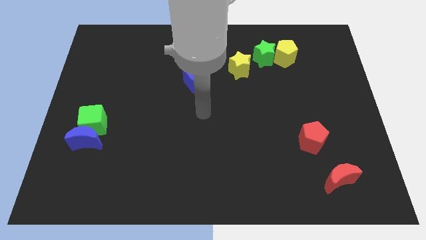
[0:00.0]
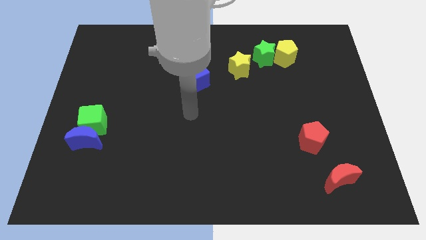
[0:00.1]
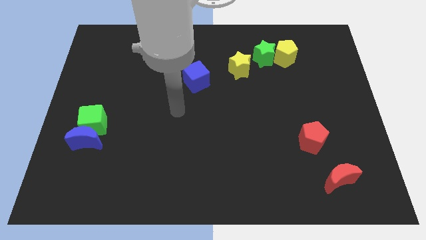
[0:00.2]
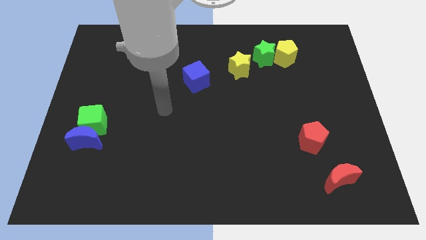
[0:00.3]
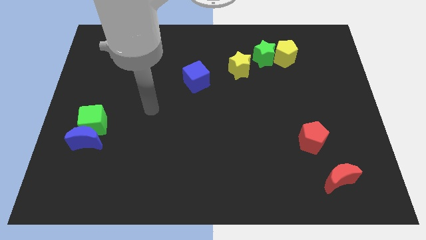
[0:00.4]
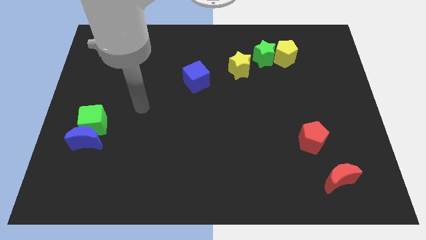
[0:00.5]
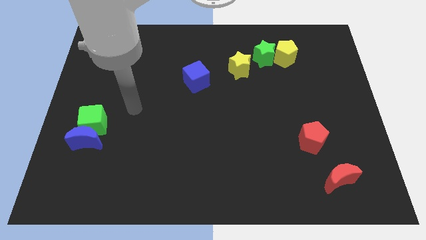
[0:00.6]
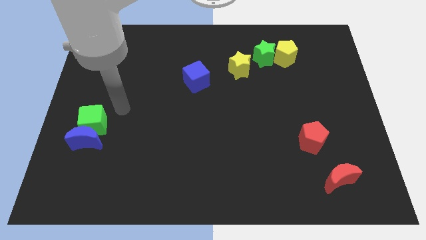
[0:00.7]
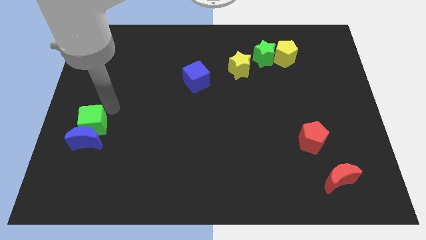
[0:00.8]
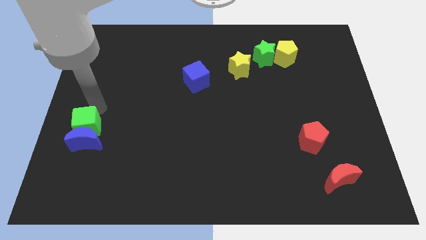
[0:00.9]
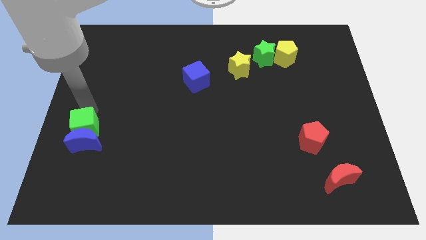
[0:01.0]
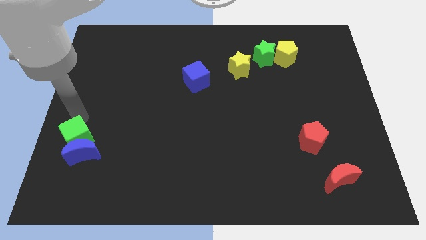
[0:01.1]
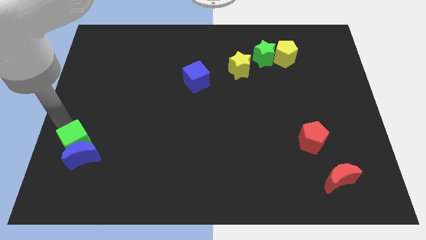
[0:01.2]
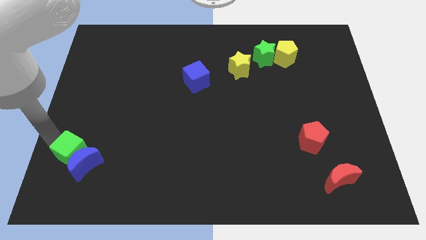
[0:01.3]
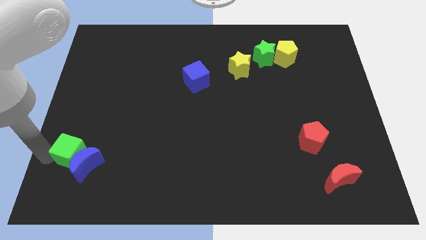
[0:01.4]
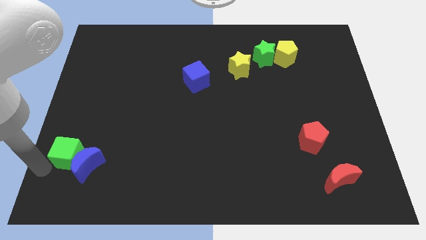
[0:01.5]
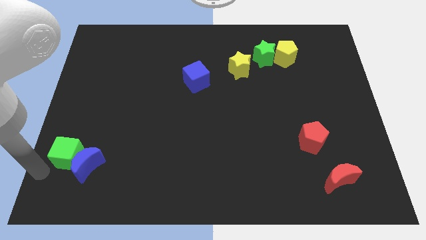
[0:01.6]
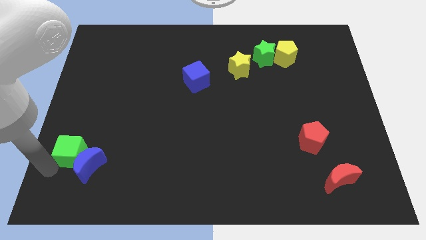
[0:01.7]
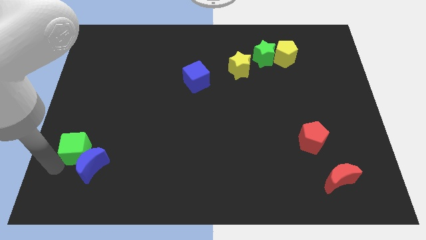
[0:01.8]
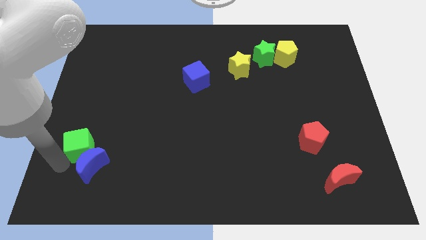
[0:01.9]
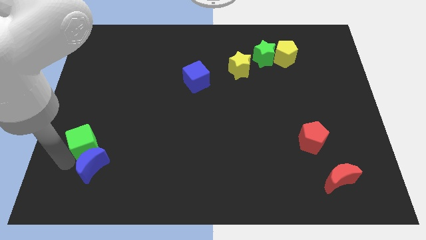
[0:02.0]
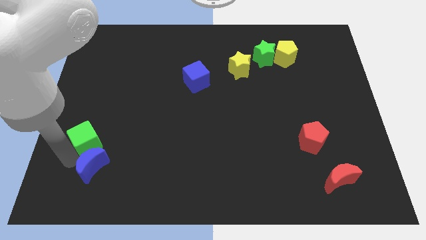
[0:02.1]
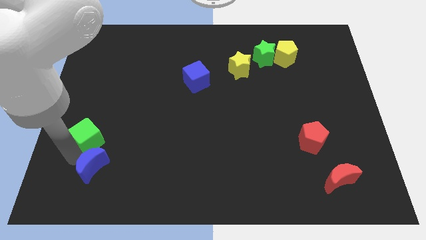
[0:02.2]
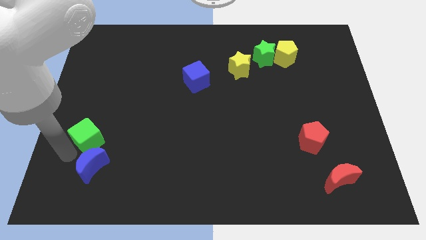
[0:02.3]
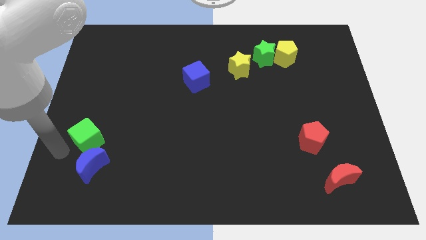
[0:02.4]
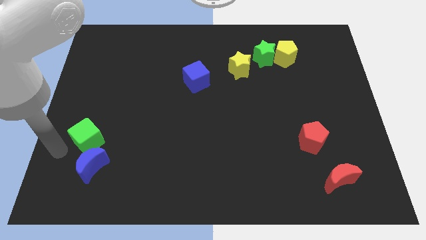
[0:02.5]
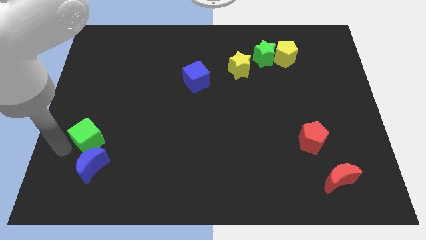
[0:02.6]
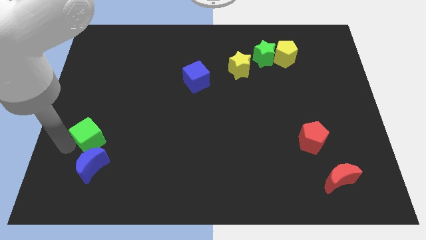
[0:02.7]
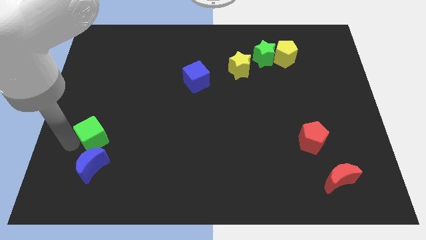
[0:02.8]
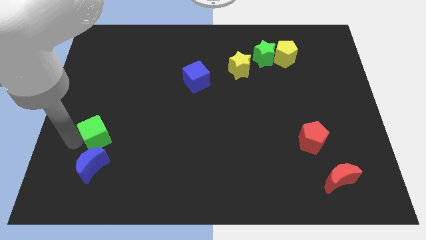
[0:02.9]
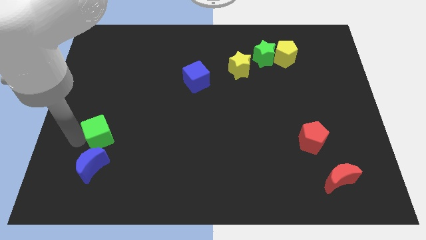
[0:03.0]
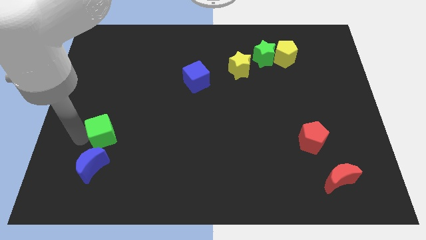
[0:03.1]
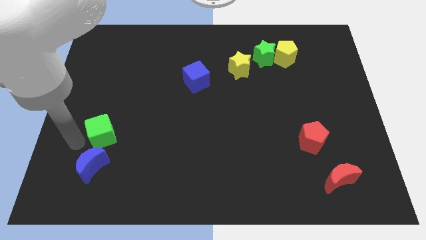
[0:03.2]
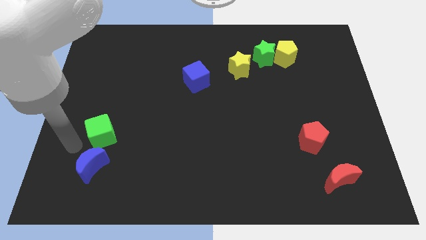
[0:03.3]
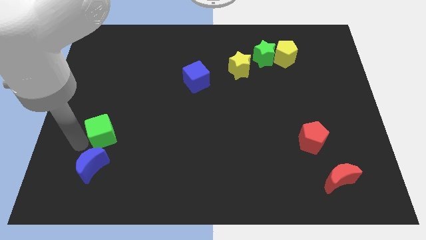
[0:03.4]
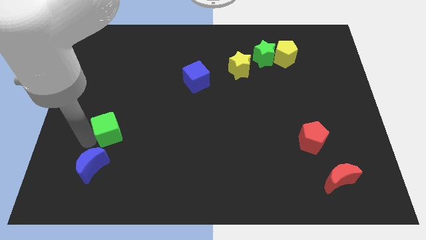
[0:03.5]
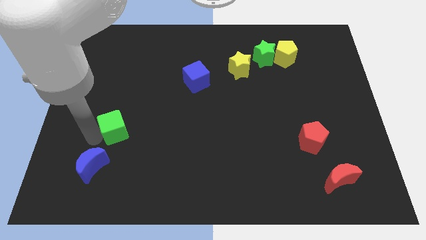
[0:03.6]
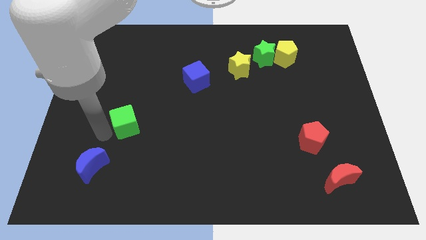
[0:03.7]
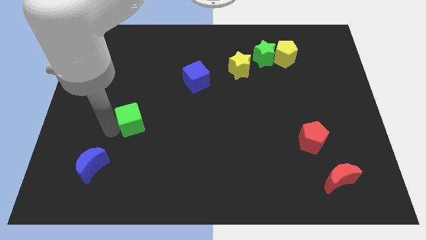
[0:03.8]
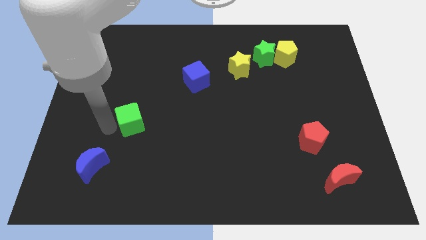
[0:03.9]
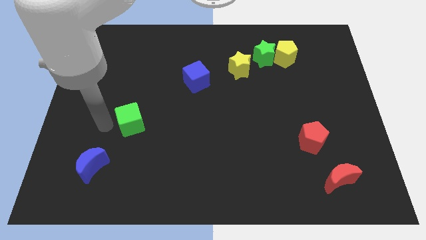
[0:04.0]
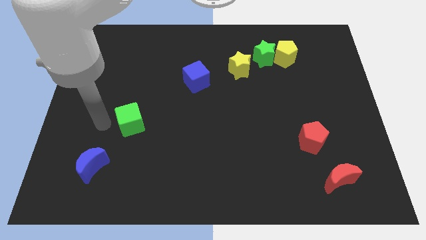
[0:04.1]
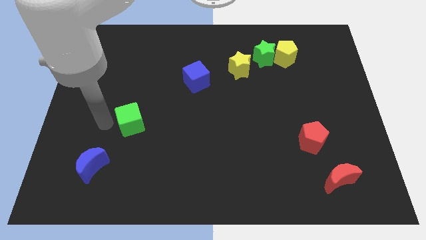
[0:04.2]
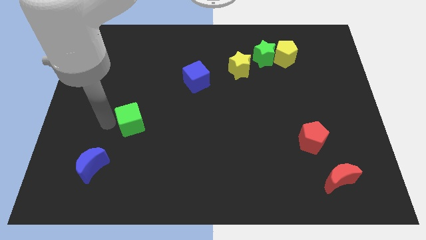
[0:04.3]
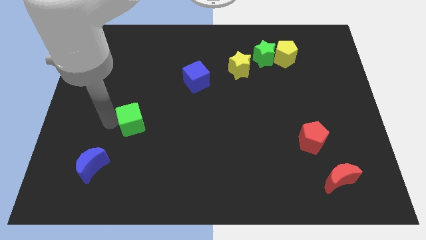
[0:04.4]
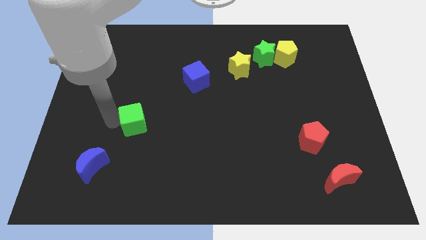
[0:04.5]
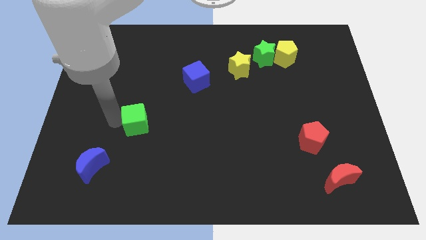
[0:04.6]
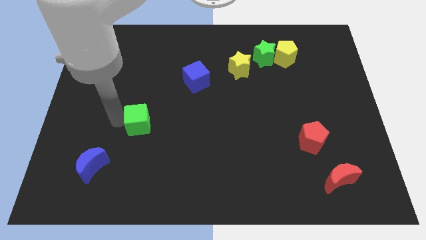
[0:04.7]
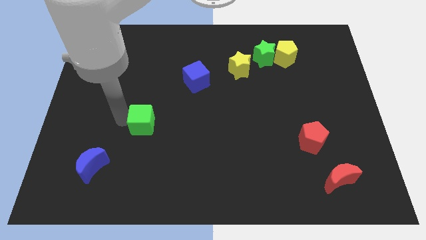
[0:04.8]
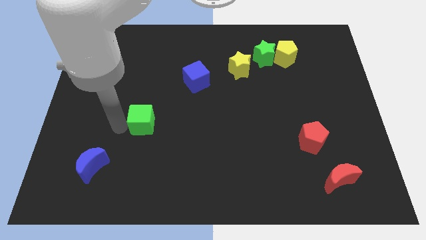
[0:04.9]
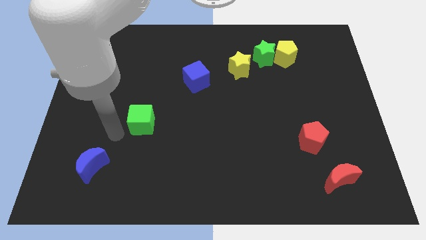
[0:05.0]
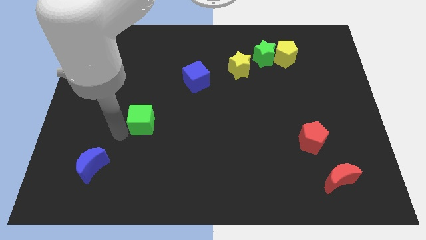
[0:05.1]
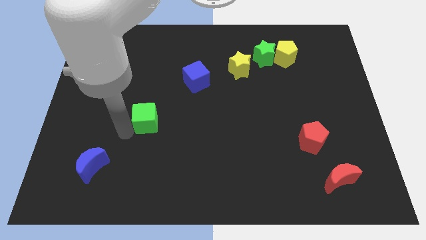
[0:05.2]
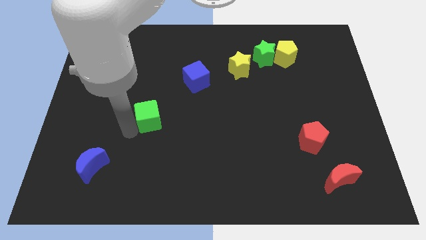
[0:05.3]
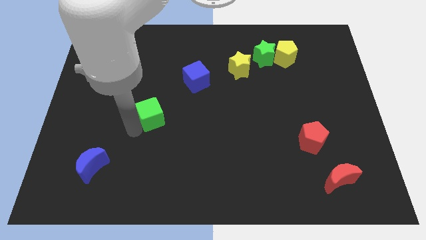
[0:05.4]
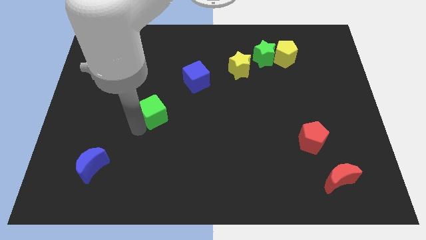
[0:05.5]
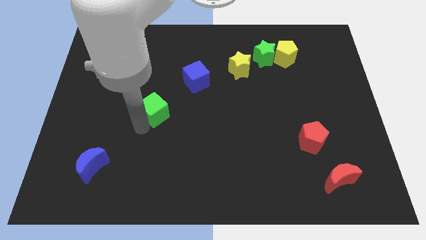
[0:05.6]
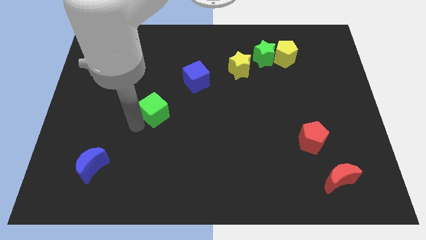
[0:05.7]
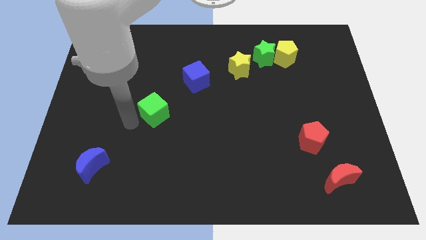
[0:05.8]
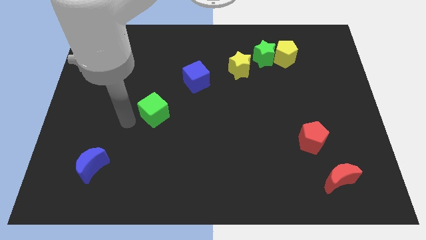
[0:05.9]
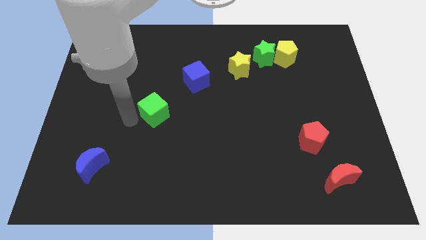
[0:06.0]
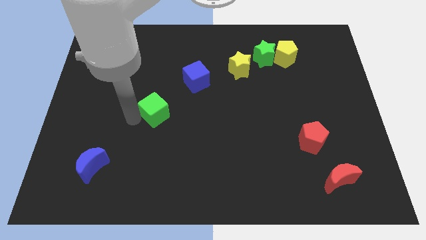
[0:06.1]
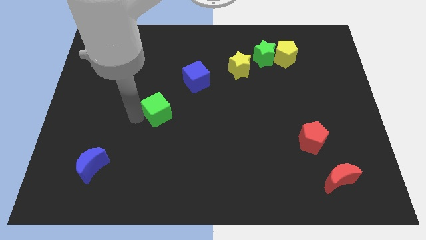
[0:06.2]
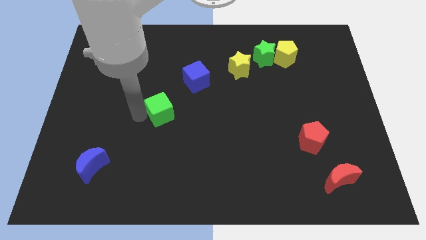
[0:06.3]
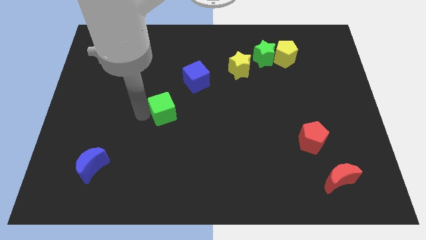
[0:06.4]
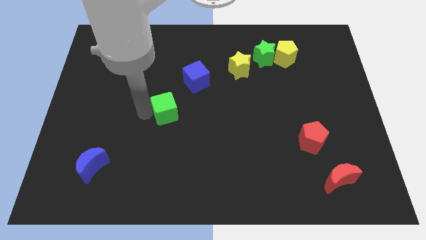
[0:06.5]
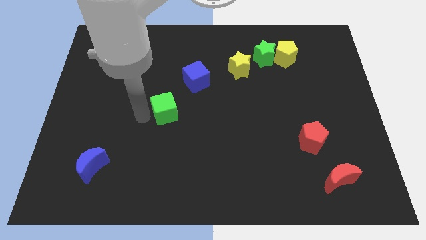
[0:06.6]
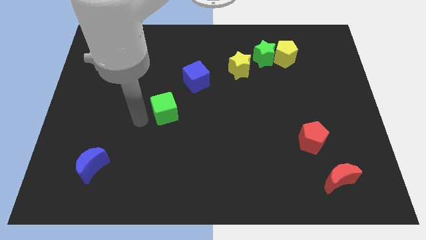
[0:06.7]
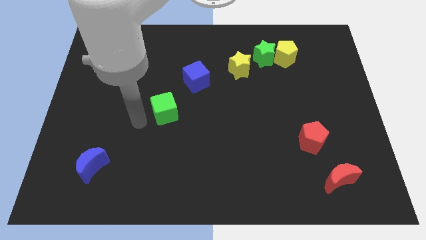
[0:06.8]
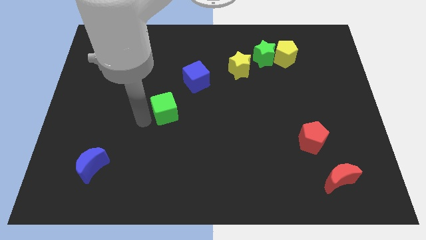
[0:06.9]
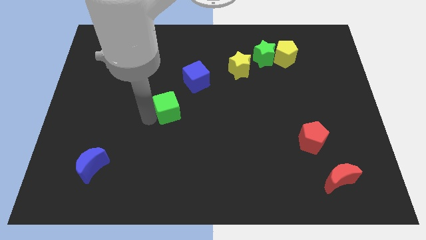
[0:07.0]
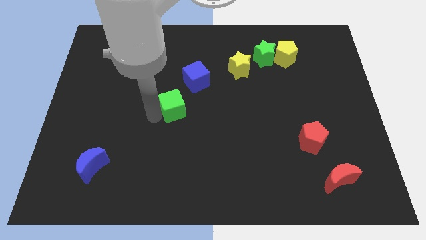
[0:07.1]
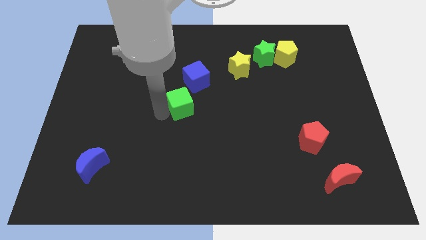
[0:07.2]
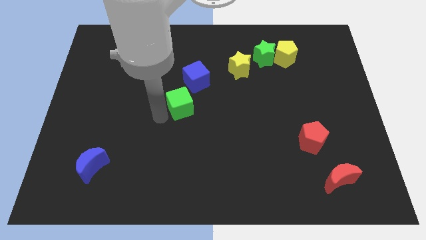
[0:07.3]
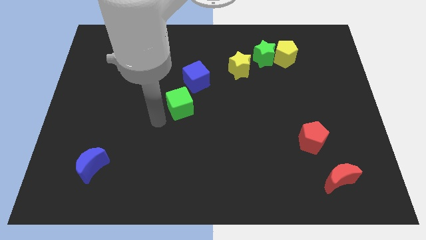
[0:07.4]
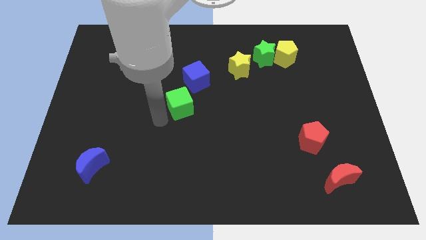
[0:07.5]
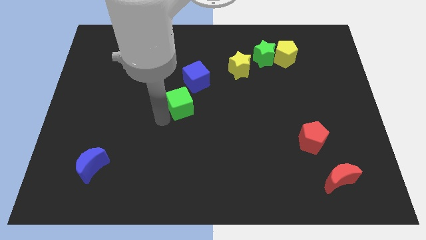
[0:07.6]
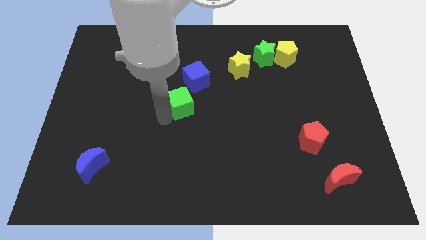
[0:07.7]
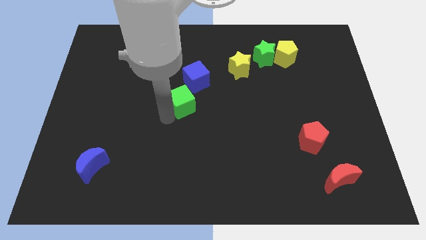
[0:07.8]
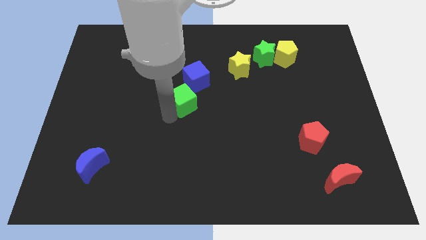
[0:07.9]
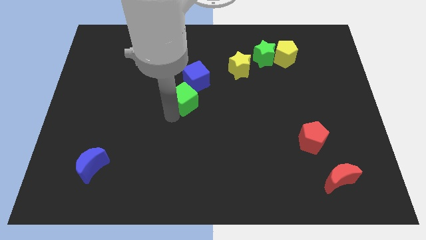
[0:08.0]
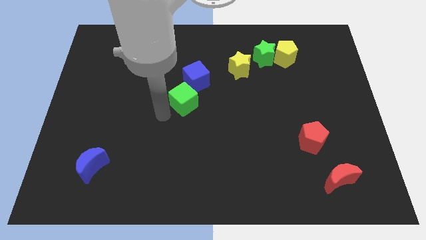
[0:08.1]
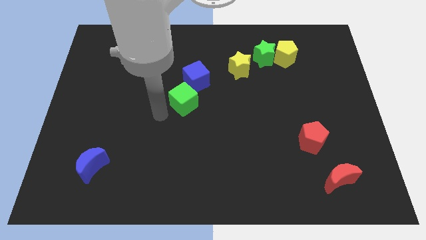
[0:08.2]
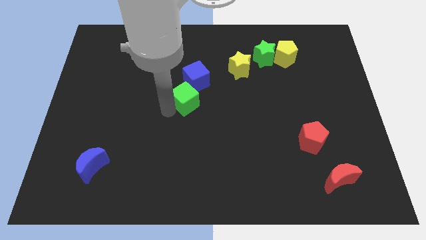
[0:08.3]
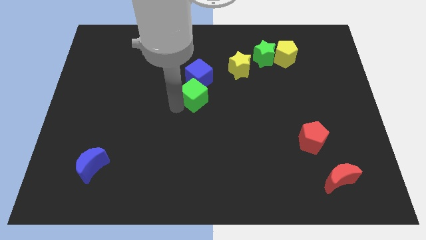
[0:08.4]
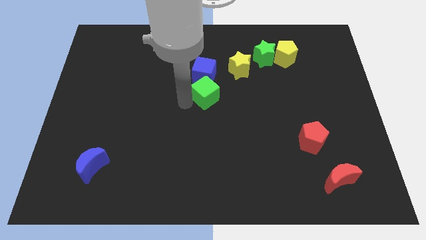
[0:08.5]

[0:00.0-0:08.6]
put the green cube to the bottom left of the yellow star
